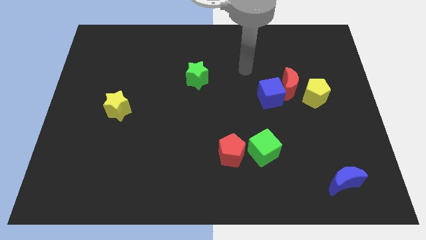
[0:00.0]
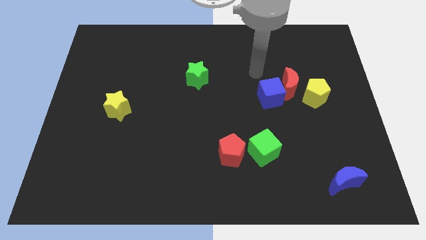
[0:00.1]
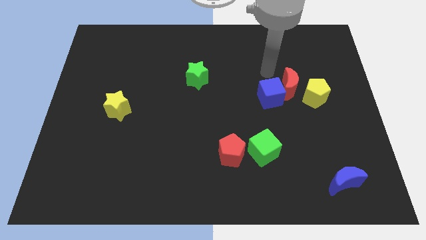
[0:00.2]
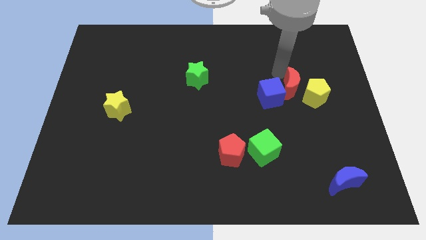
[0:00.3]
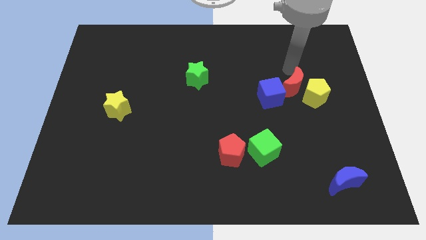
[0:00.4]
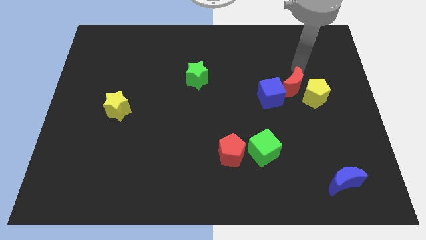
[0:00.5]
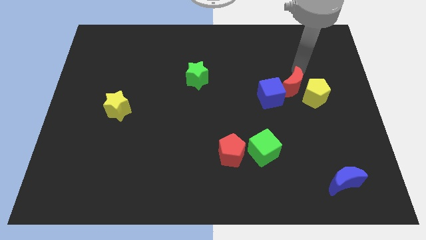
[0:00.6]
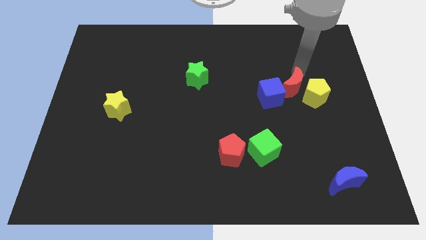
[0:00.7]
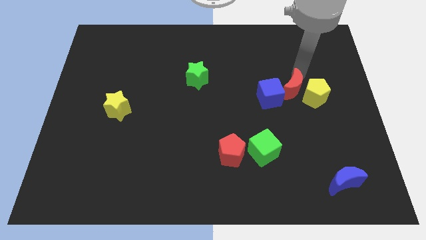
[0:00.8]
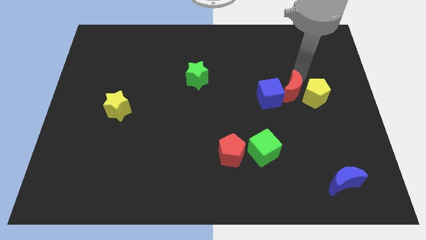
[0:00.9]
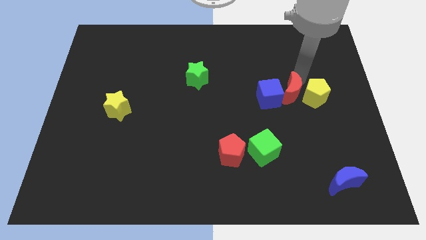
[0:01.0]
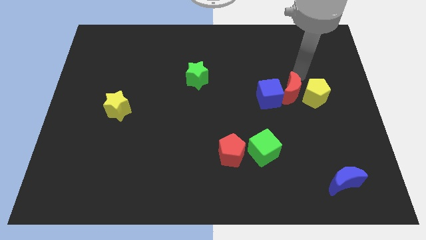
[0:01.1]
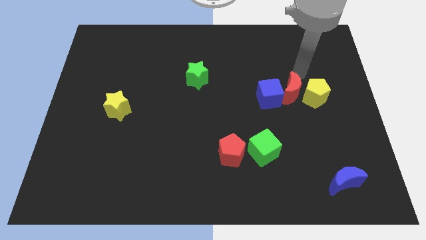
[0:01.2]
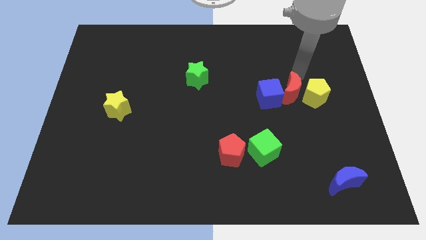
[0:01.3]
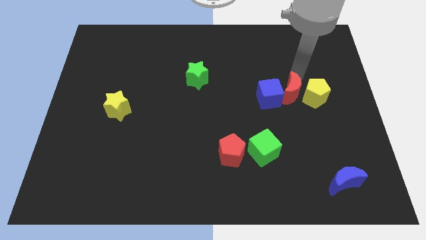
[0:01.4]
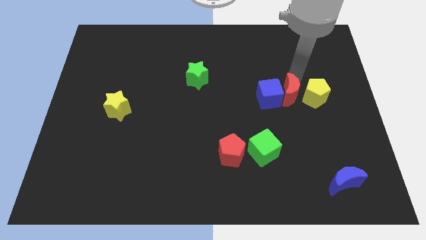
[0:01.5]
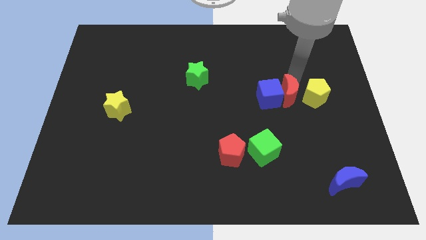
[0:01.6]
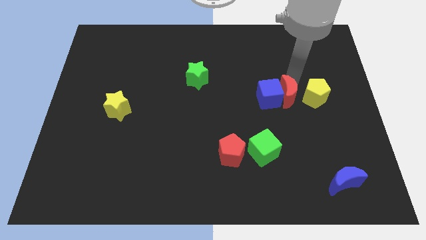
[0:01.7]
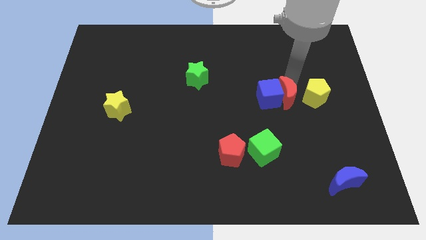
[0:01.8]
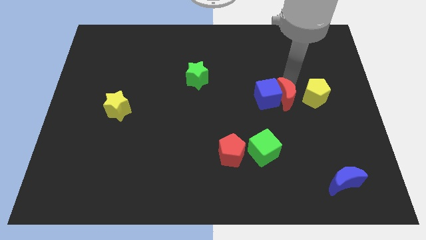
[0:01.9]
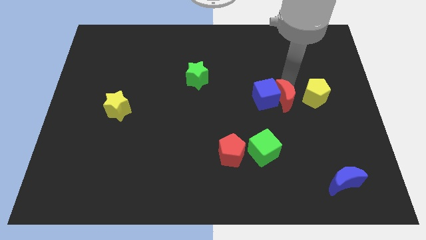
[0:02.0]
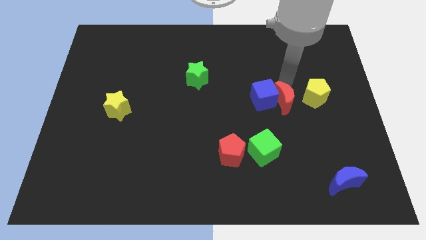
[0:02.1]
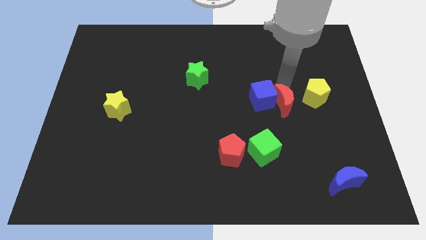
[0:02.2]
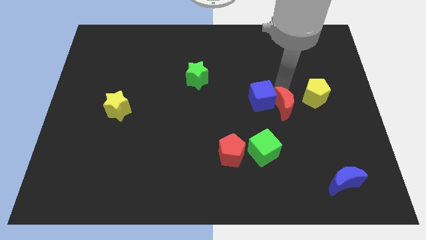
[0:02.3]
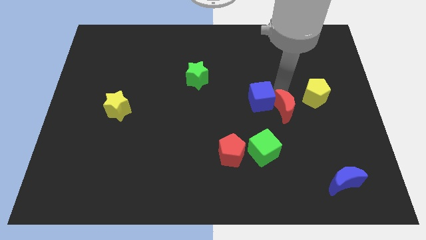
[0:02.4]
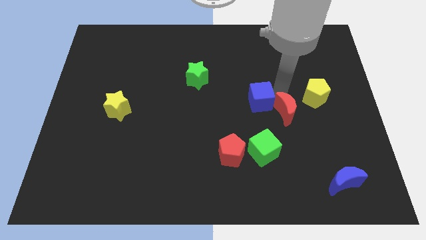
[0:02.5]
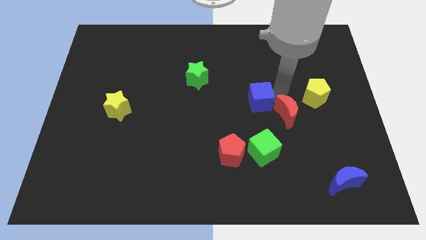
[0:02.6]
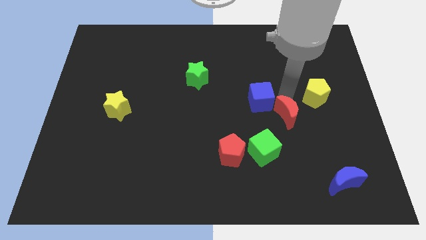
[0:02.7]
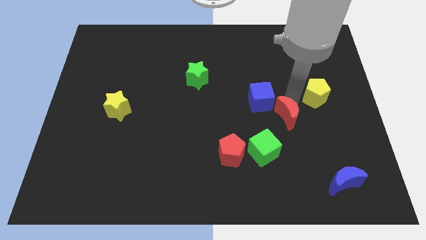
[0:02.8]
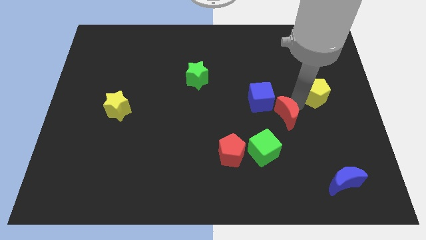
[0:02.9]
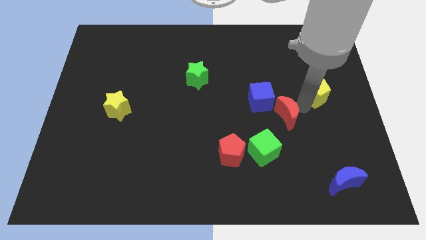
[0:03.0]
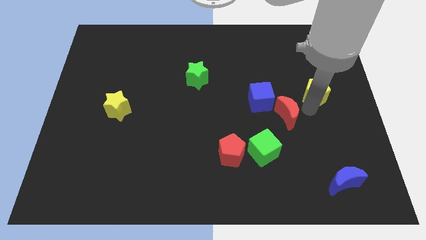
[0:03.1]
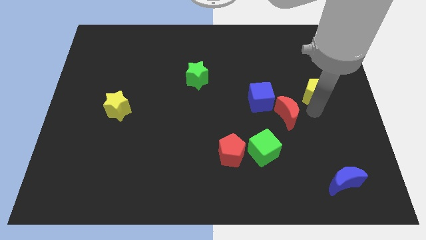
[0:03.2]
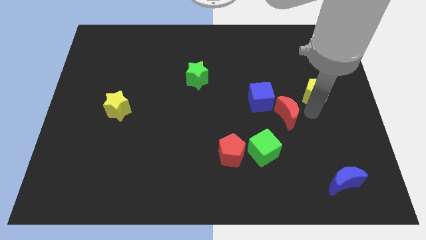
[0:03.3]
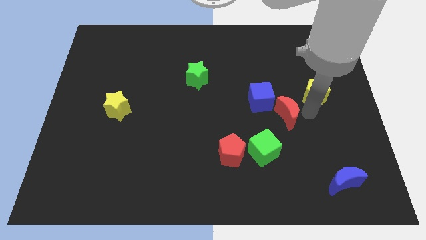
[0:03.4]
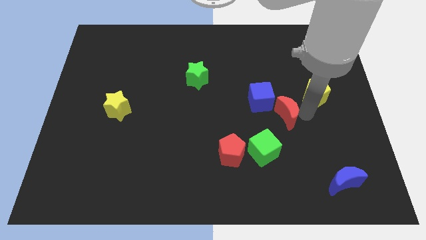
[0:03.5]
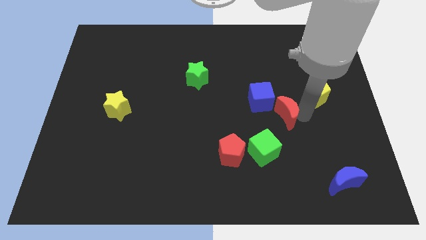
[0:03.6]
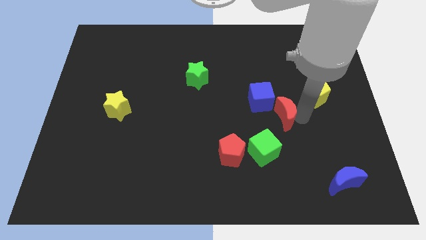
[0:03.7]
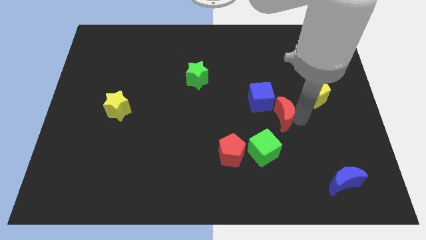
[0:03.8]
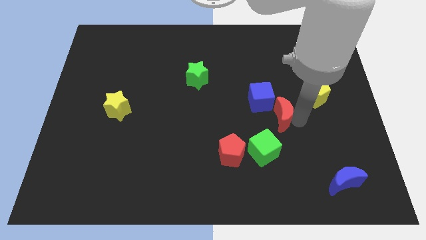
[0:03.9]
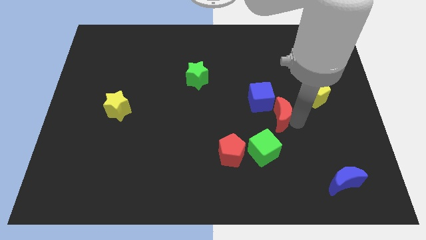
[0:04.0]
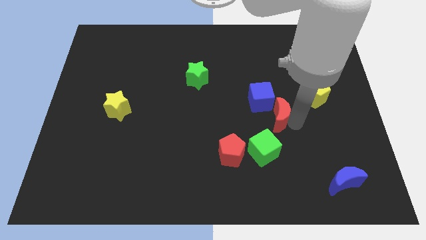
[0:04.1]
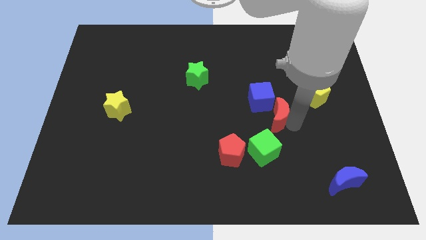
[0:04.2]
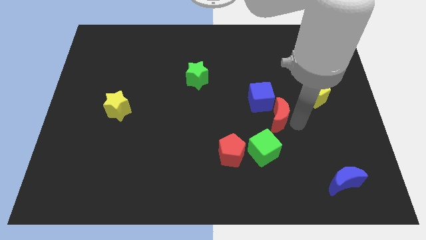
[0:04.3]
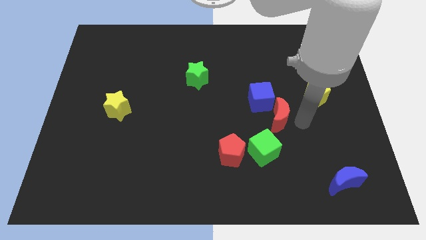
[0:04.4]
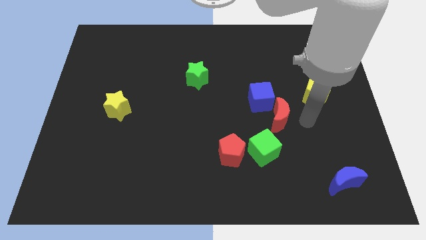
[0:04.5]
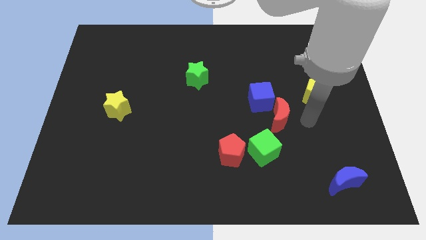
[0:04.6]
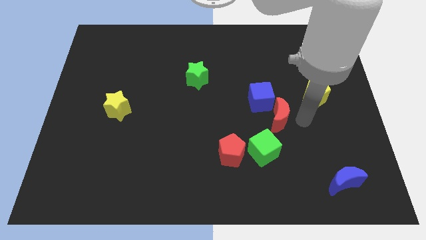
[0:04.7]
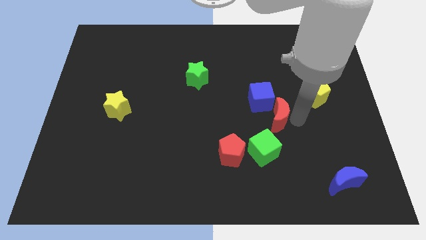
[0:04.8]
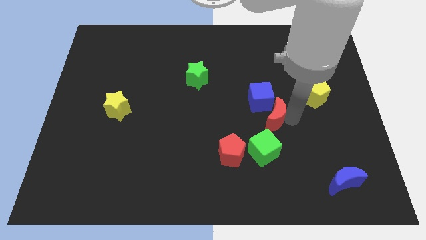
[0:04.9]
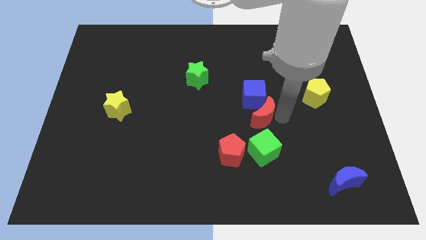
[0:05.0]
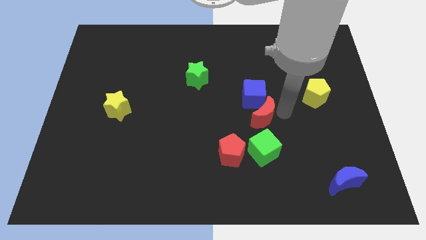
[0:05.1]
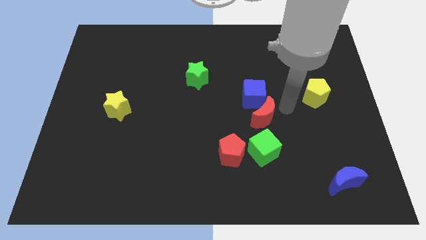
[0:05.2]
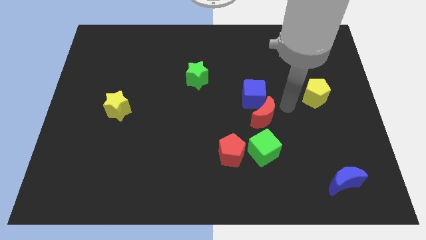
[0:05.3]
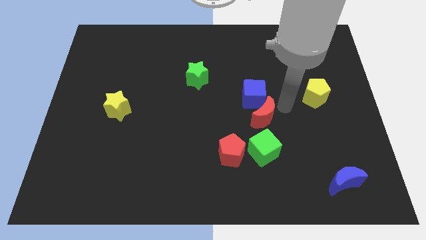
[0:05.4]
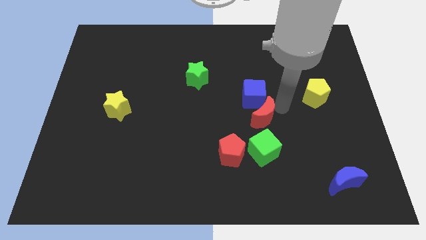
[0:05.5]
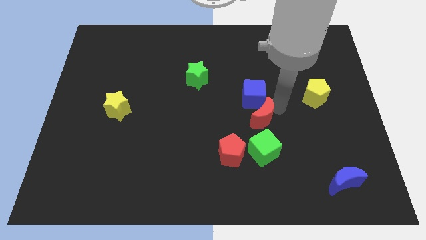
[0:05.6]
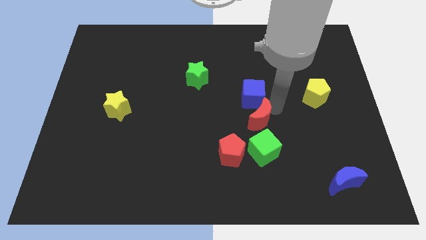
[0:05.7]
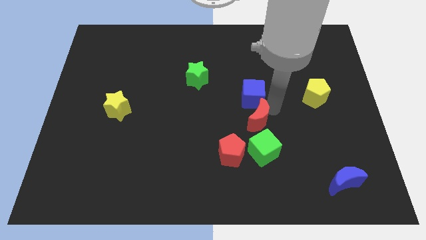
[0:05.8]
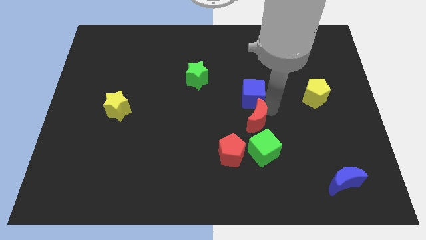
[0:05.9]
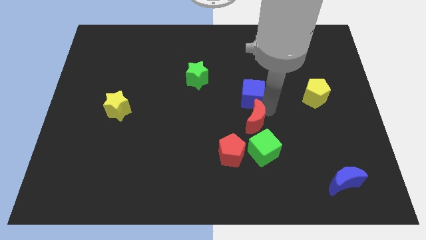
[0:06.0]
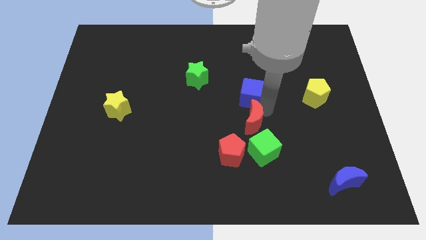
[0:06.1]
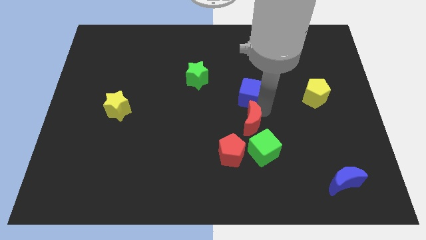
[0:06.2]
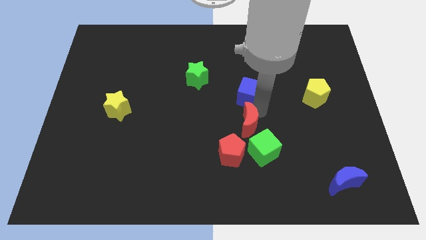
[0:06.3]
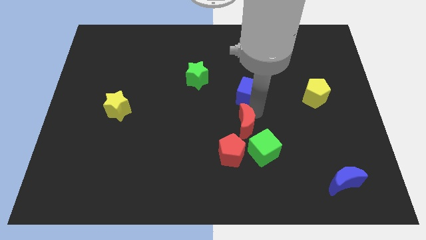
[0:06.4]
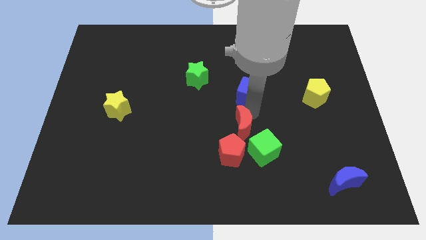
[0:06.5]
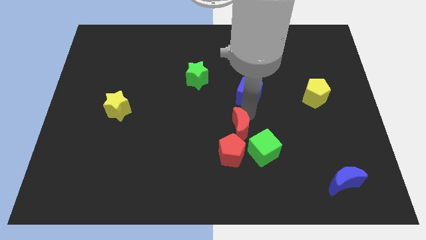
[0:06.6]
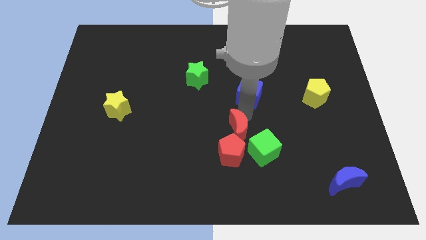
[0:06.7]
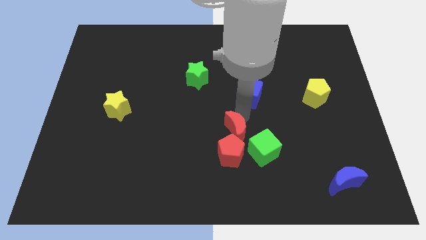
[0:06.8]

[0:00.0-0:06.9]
slide the red moon towards the red pentagon
